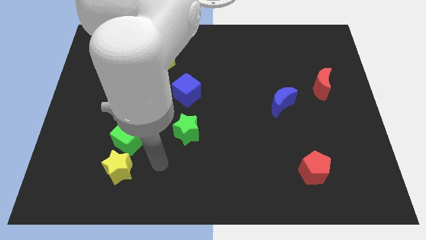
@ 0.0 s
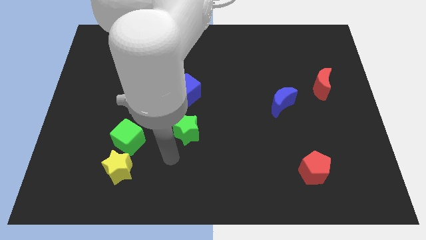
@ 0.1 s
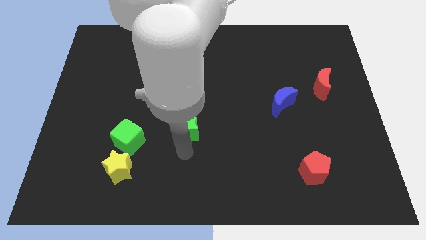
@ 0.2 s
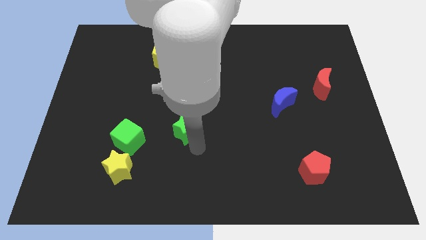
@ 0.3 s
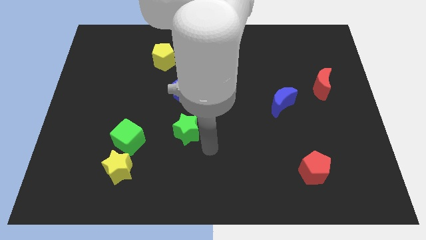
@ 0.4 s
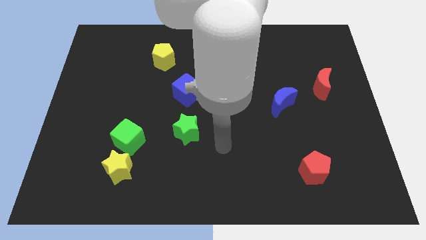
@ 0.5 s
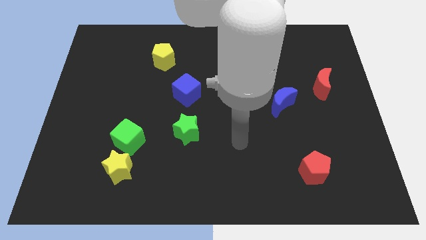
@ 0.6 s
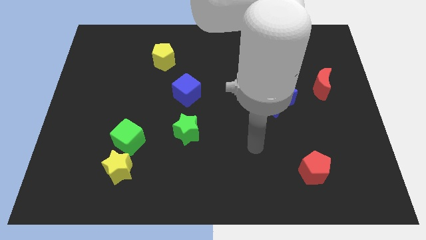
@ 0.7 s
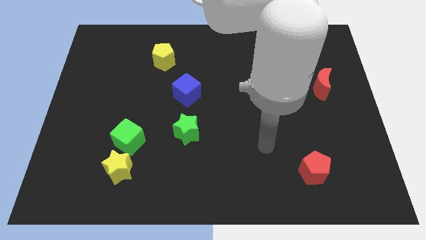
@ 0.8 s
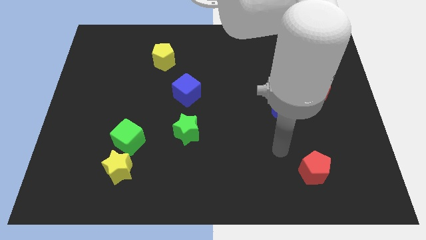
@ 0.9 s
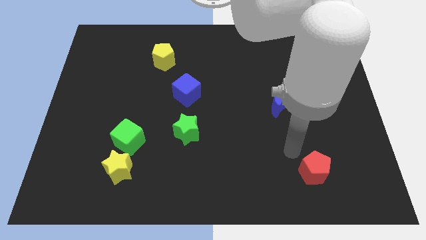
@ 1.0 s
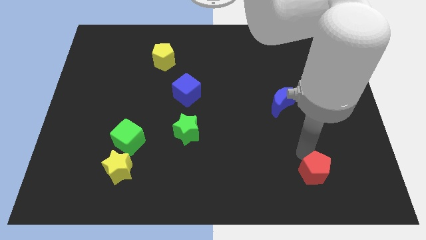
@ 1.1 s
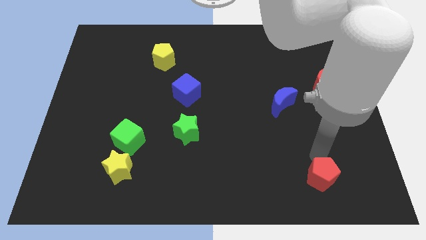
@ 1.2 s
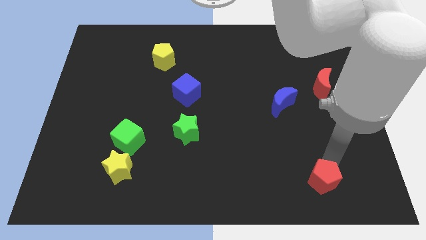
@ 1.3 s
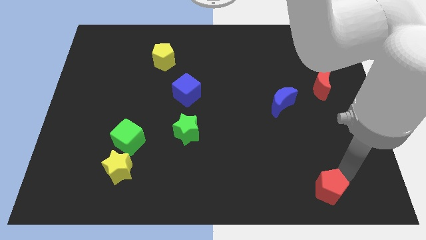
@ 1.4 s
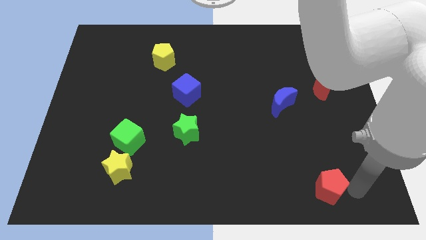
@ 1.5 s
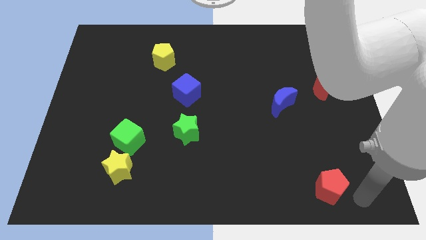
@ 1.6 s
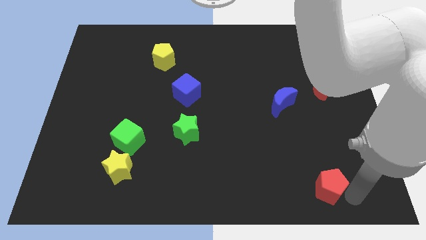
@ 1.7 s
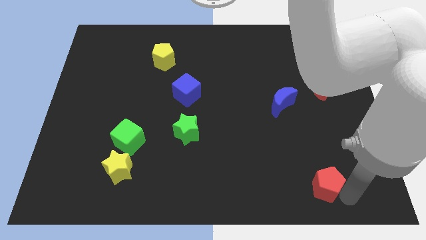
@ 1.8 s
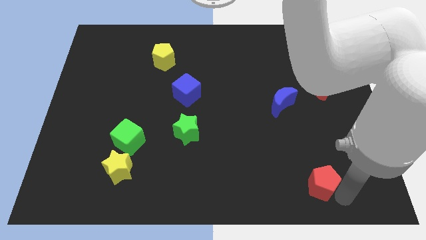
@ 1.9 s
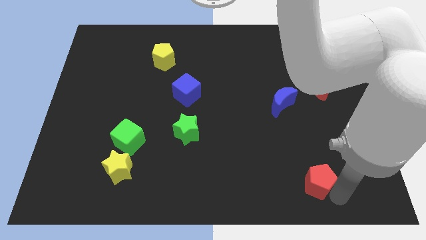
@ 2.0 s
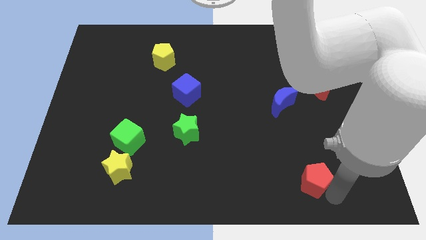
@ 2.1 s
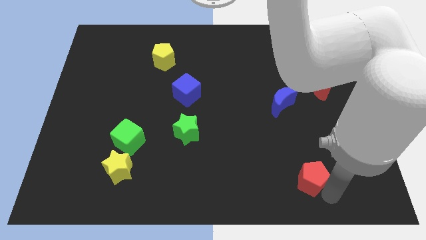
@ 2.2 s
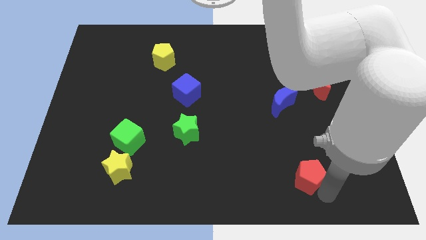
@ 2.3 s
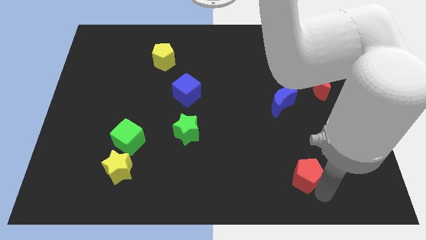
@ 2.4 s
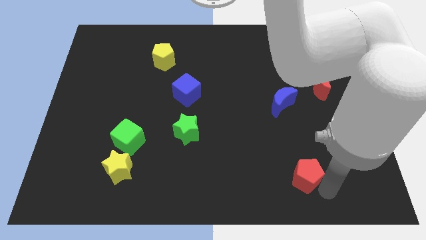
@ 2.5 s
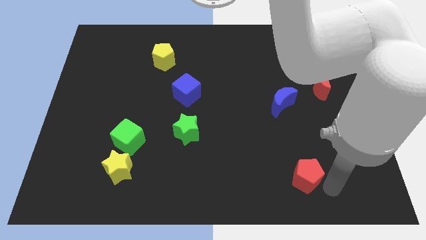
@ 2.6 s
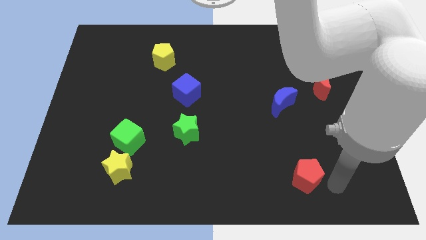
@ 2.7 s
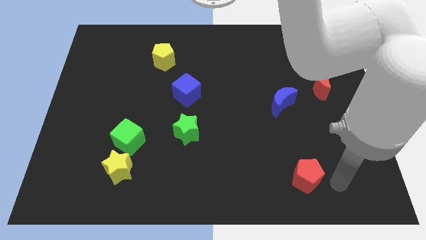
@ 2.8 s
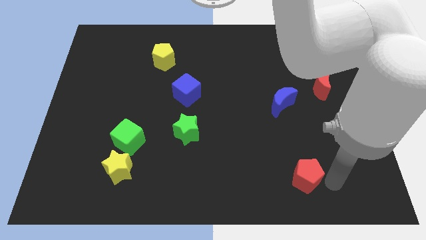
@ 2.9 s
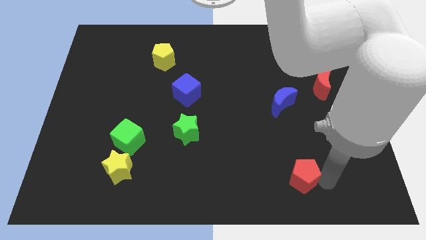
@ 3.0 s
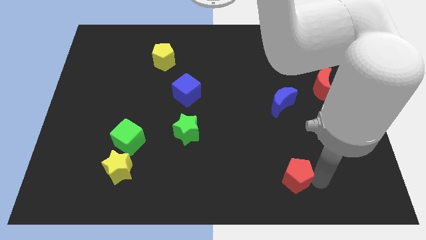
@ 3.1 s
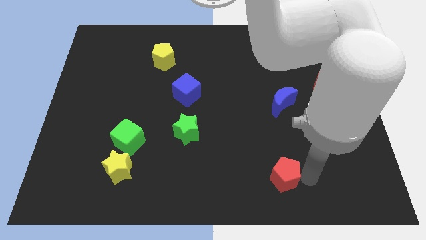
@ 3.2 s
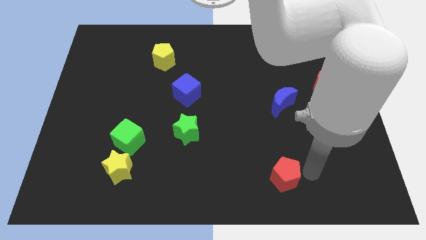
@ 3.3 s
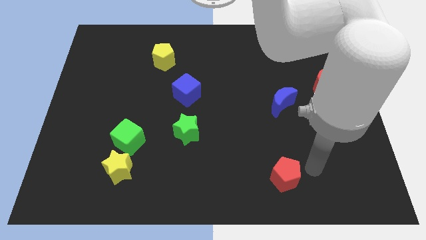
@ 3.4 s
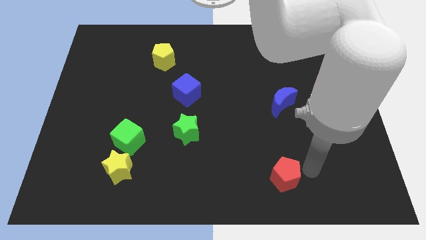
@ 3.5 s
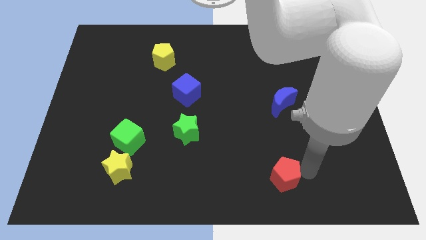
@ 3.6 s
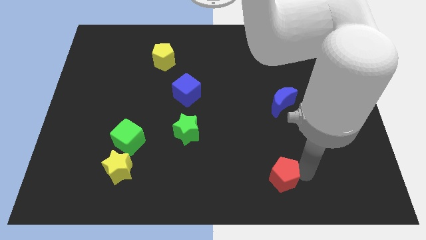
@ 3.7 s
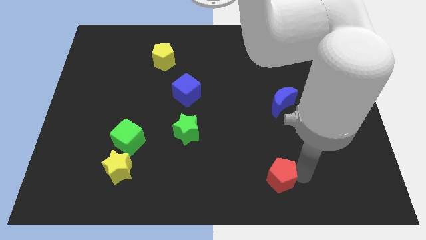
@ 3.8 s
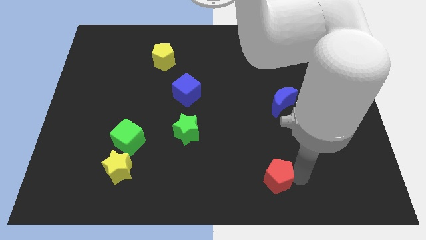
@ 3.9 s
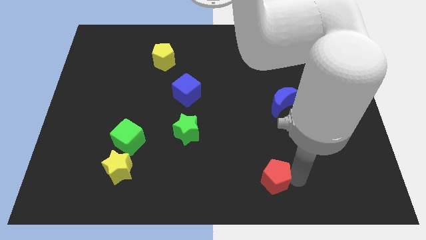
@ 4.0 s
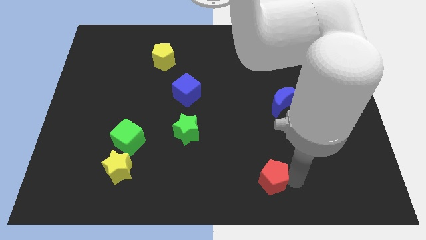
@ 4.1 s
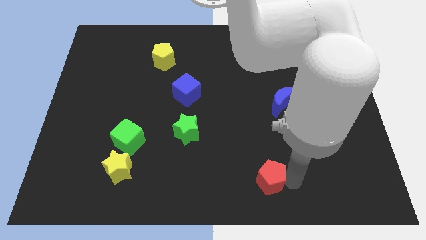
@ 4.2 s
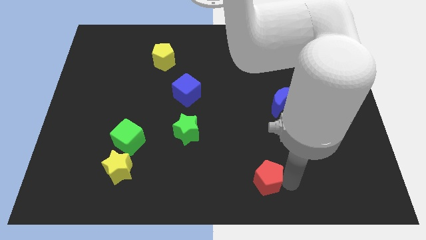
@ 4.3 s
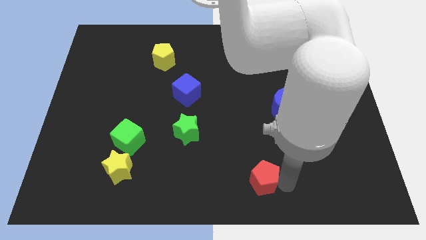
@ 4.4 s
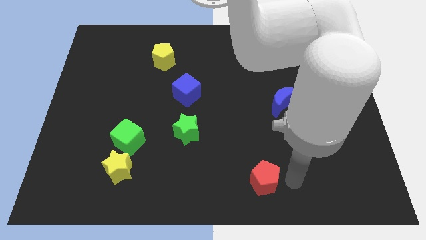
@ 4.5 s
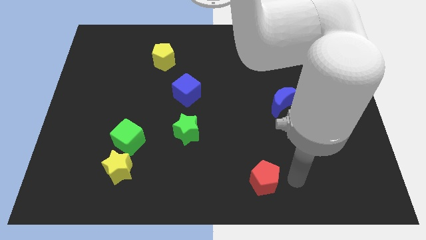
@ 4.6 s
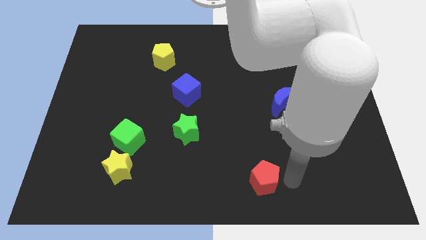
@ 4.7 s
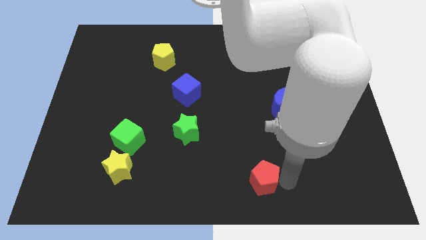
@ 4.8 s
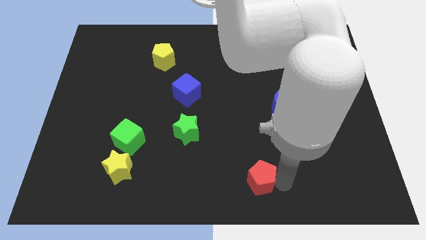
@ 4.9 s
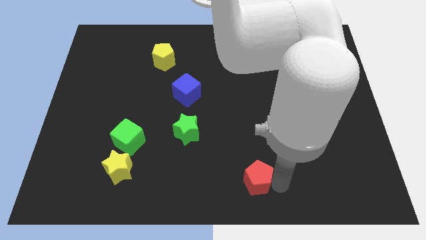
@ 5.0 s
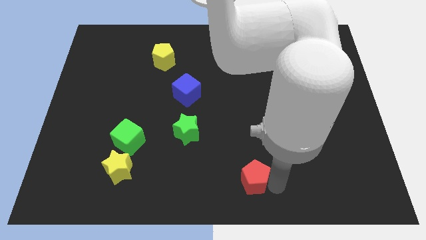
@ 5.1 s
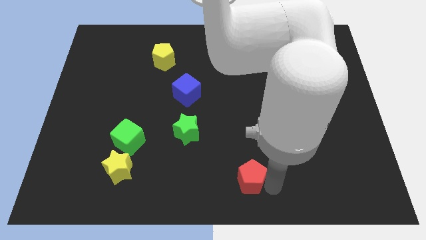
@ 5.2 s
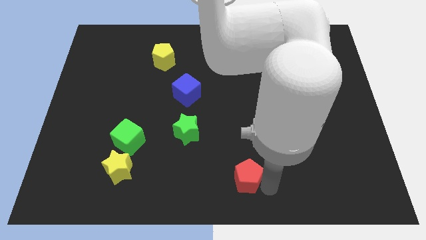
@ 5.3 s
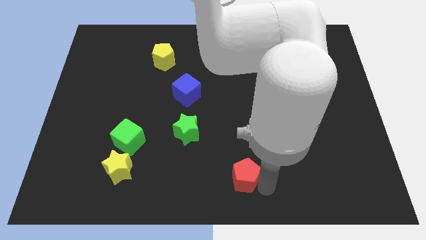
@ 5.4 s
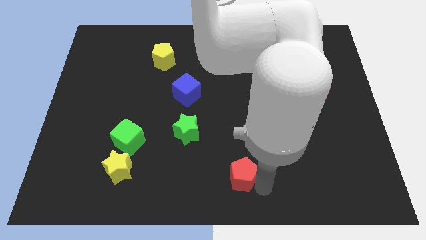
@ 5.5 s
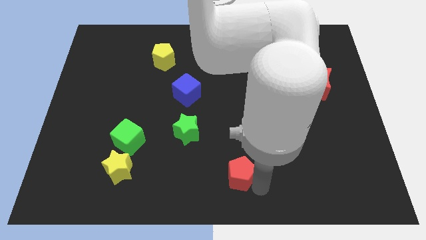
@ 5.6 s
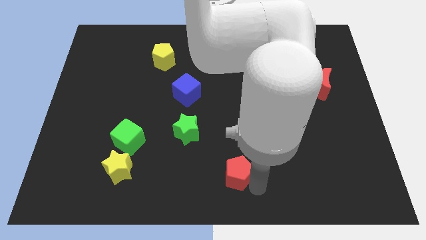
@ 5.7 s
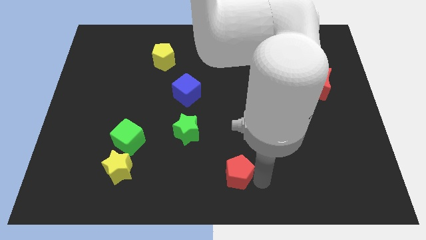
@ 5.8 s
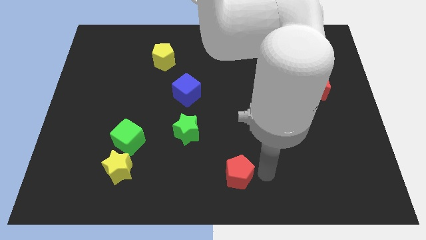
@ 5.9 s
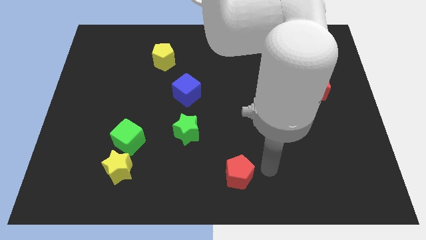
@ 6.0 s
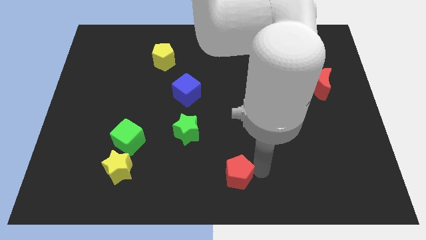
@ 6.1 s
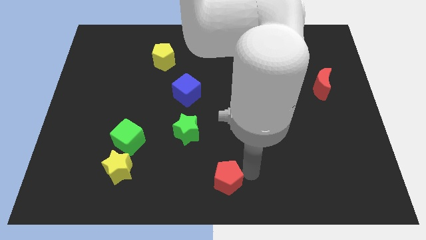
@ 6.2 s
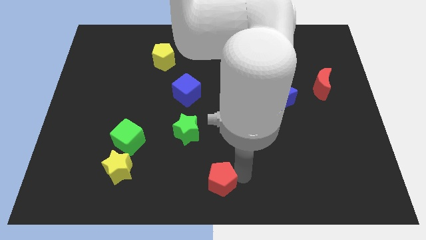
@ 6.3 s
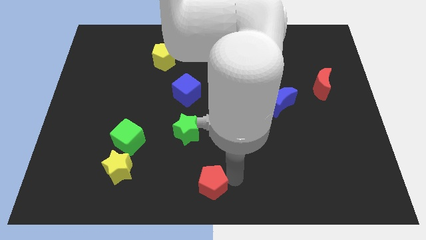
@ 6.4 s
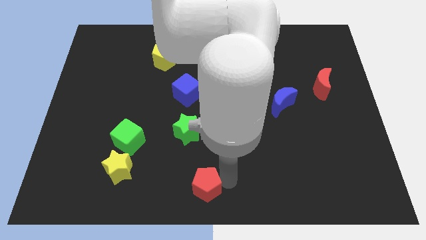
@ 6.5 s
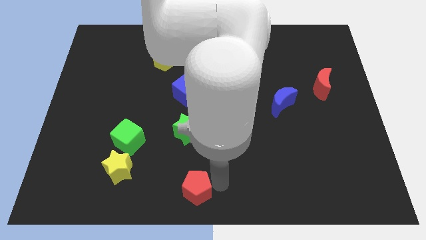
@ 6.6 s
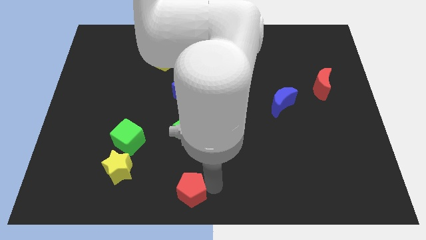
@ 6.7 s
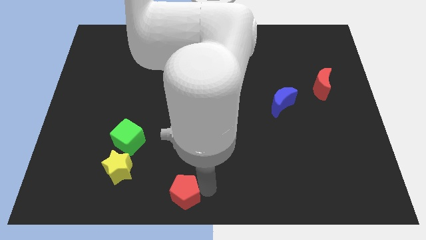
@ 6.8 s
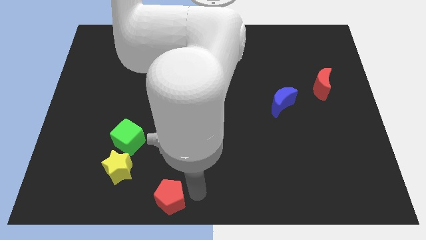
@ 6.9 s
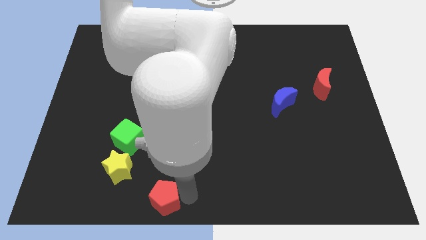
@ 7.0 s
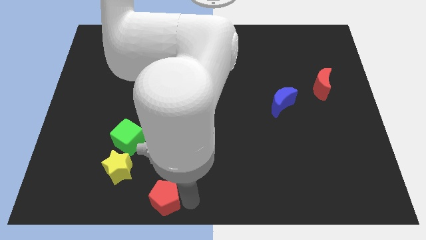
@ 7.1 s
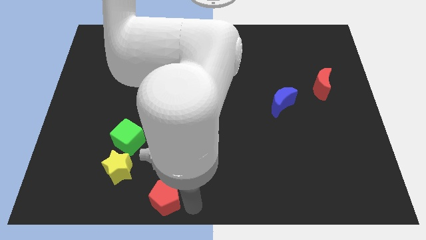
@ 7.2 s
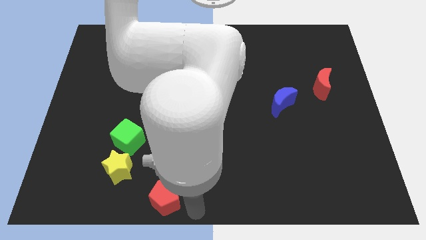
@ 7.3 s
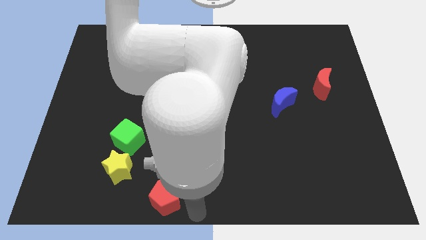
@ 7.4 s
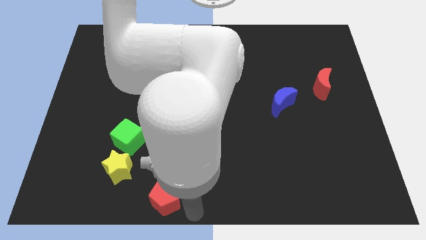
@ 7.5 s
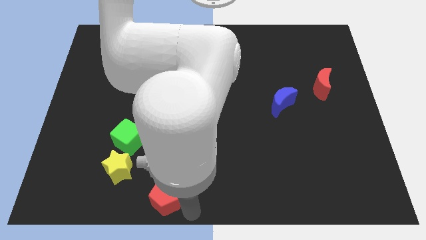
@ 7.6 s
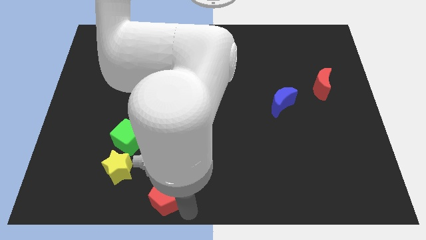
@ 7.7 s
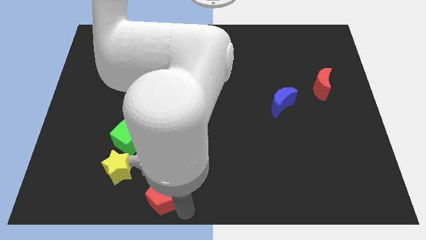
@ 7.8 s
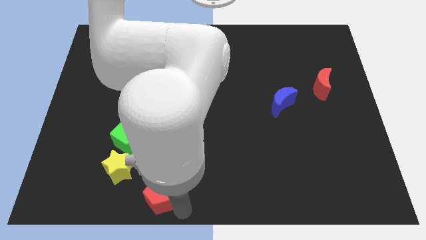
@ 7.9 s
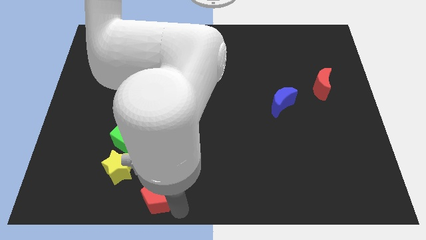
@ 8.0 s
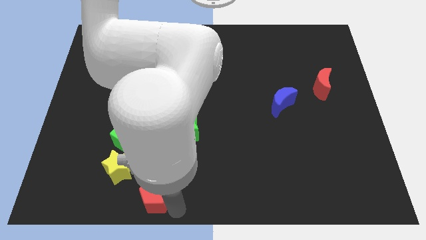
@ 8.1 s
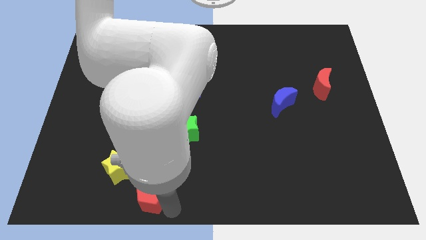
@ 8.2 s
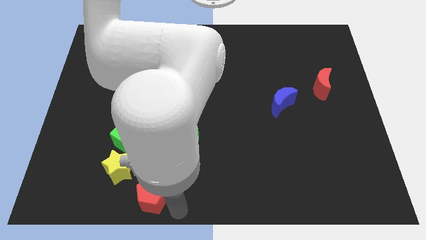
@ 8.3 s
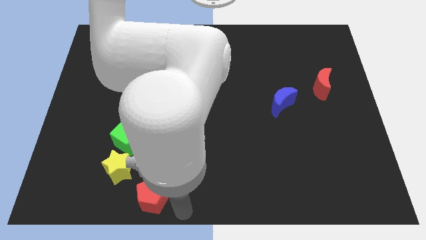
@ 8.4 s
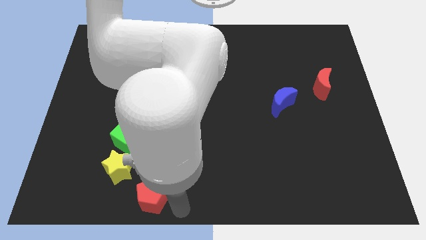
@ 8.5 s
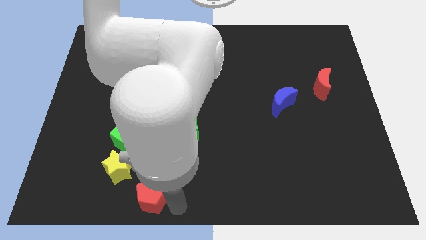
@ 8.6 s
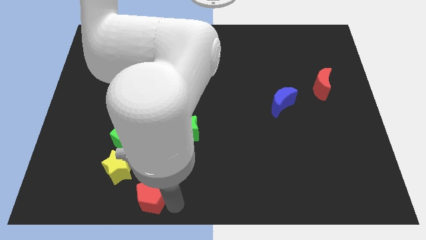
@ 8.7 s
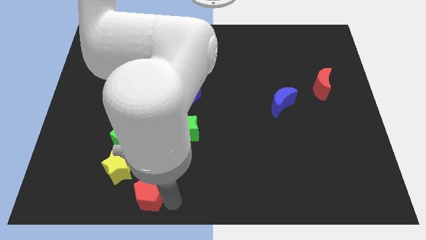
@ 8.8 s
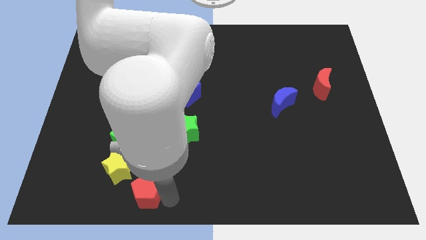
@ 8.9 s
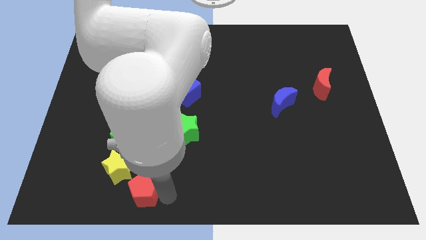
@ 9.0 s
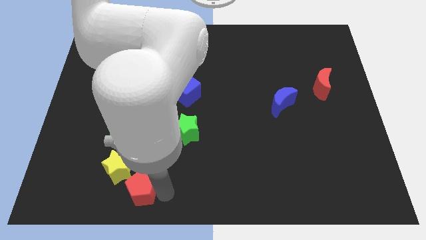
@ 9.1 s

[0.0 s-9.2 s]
put the red pentagon to the bottom side of the green cube
